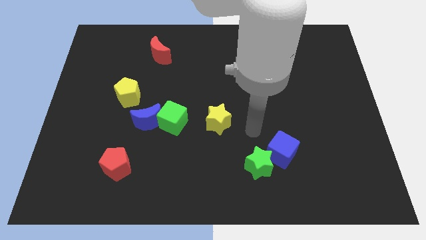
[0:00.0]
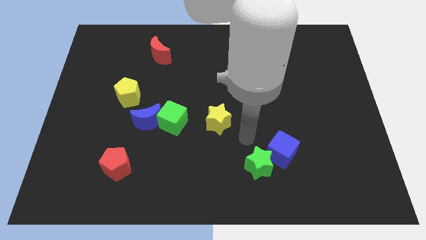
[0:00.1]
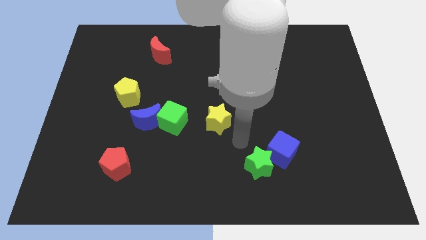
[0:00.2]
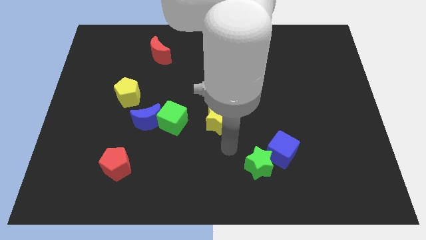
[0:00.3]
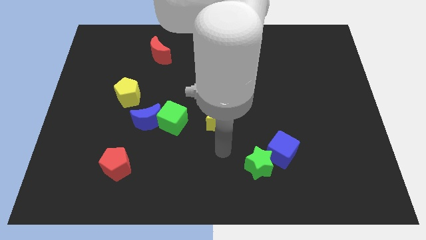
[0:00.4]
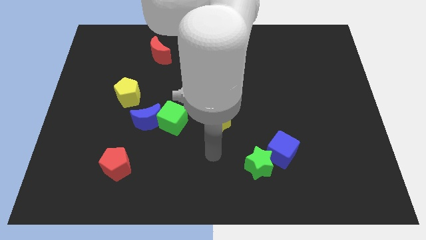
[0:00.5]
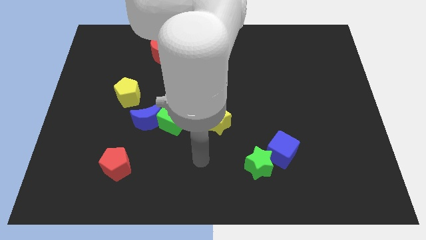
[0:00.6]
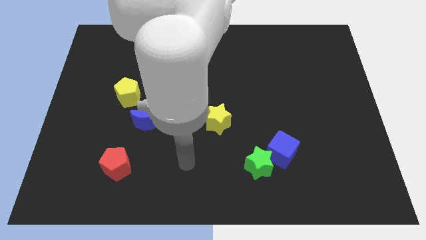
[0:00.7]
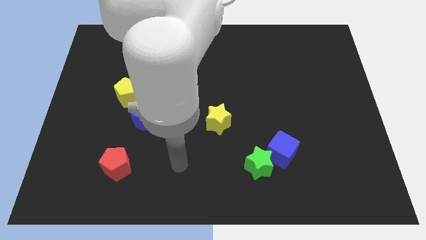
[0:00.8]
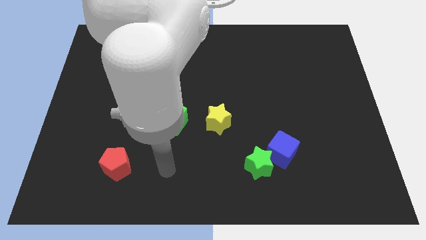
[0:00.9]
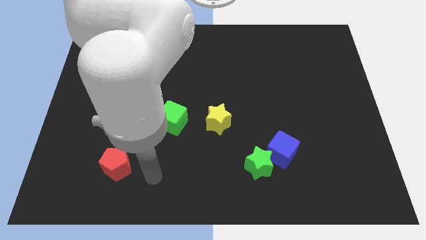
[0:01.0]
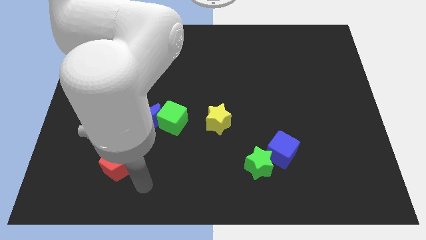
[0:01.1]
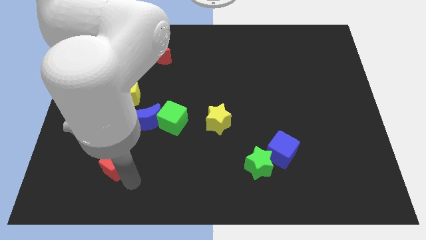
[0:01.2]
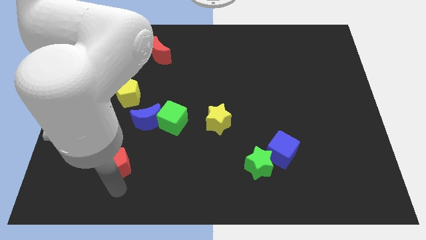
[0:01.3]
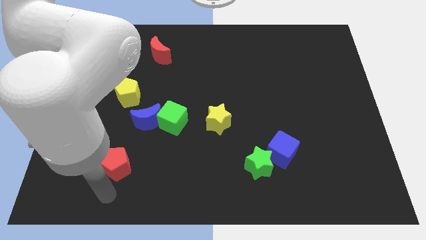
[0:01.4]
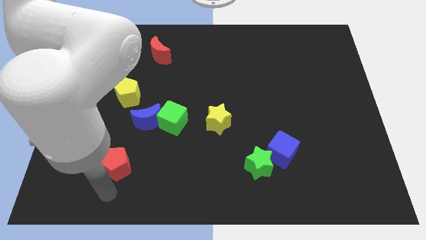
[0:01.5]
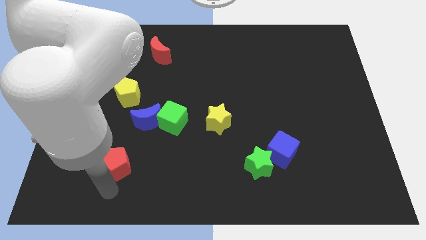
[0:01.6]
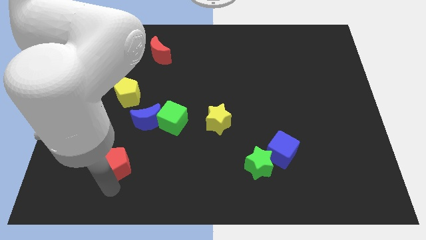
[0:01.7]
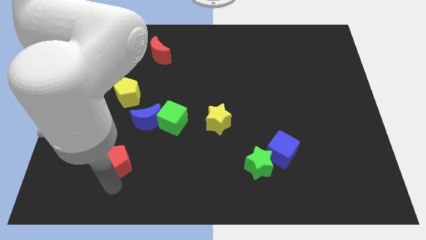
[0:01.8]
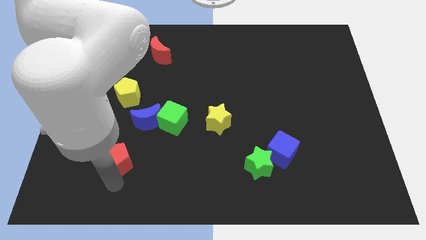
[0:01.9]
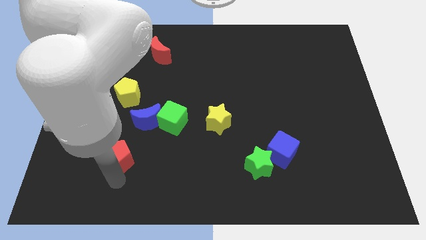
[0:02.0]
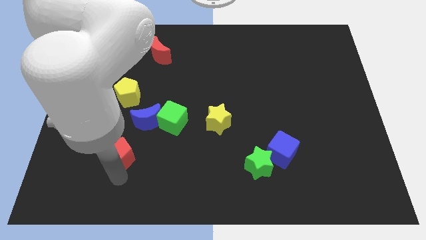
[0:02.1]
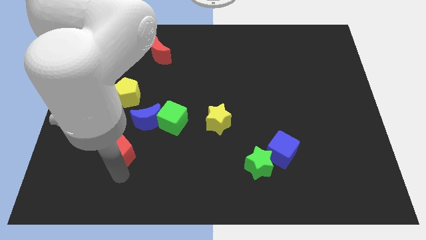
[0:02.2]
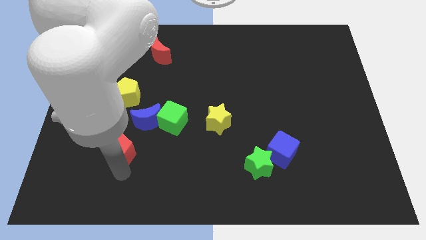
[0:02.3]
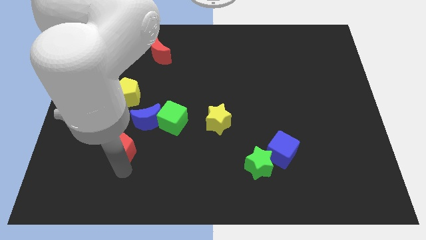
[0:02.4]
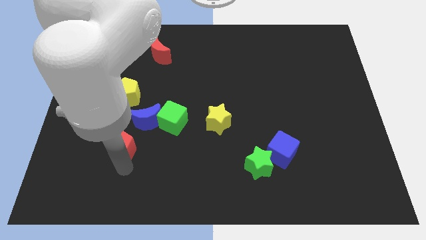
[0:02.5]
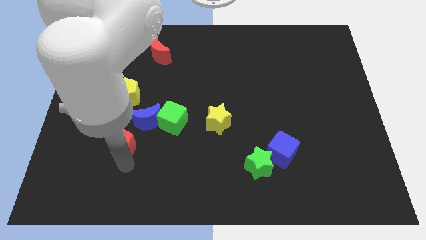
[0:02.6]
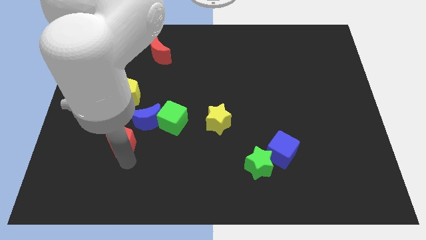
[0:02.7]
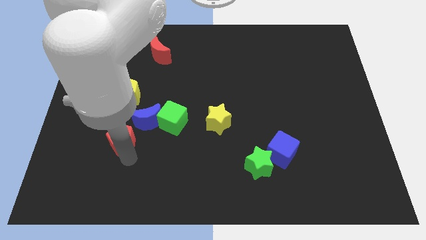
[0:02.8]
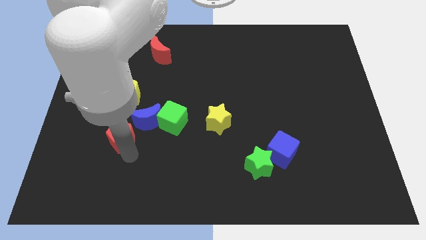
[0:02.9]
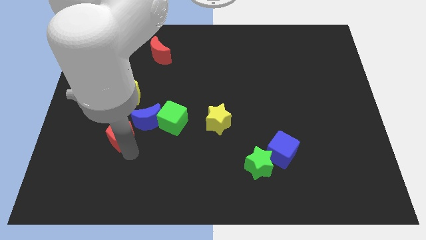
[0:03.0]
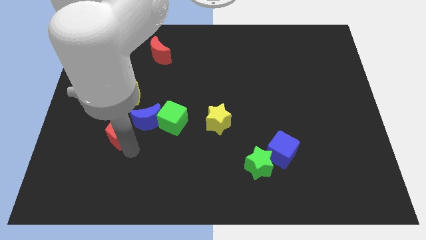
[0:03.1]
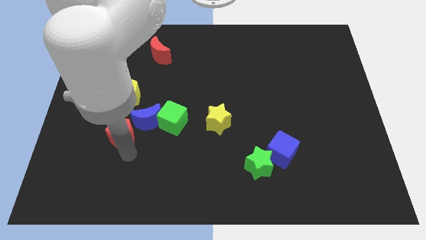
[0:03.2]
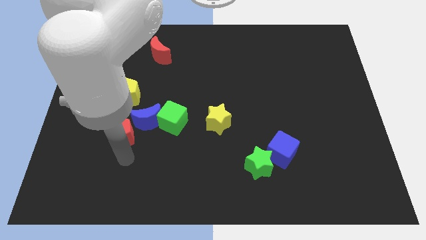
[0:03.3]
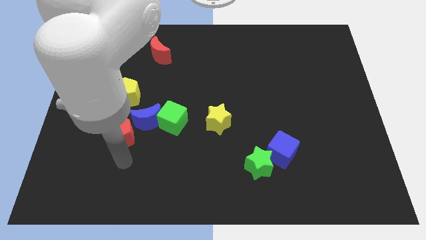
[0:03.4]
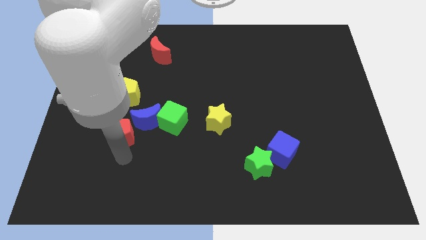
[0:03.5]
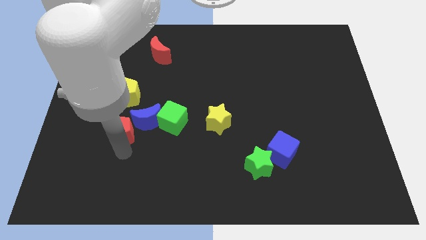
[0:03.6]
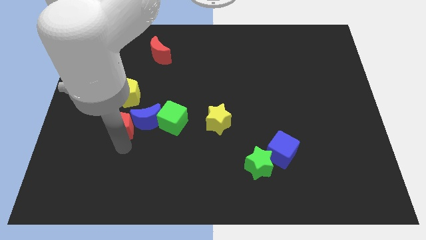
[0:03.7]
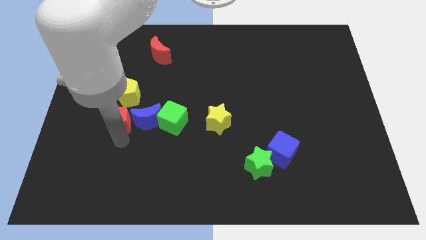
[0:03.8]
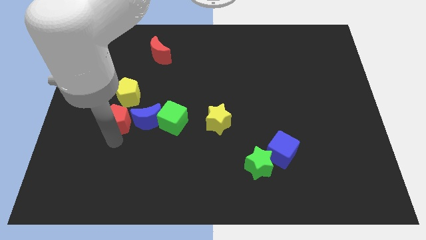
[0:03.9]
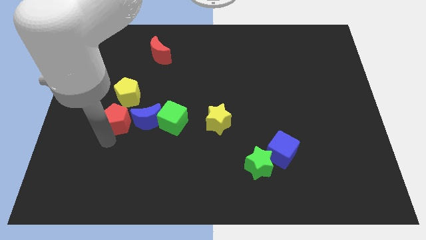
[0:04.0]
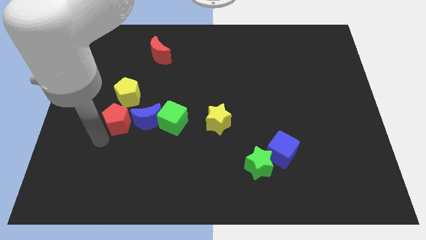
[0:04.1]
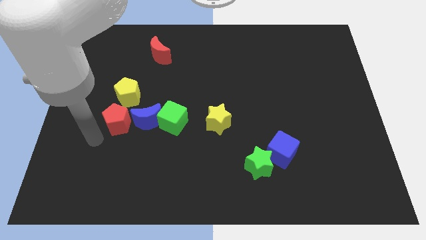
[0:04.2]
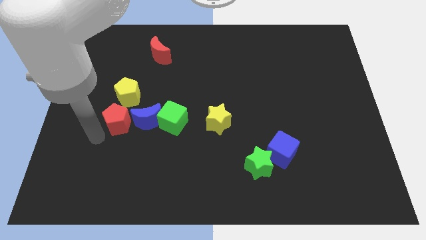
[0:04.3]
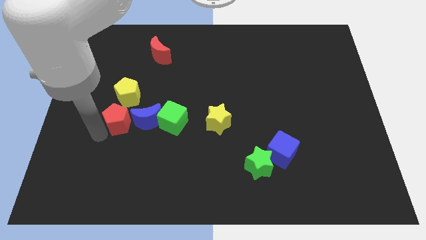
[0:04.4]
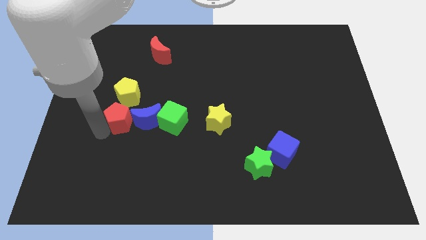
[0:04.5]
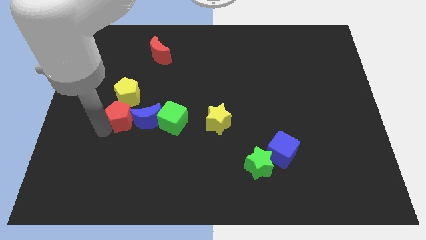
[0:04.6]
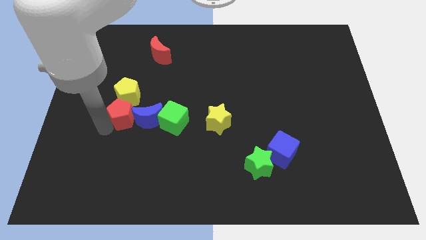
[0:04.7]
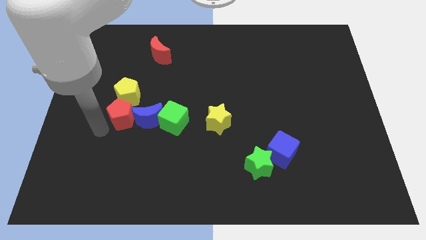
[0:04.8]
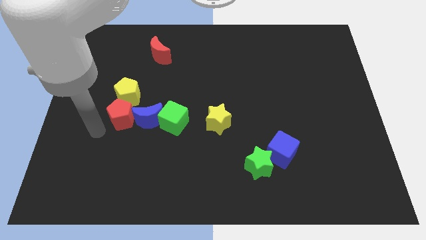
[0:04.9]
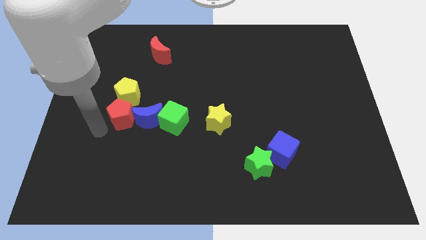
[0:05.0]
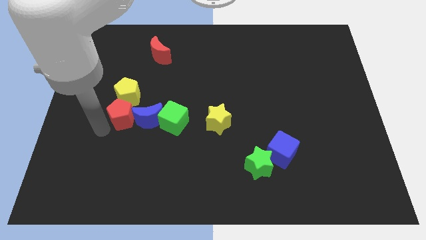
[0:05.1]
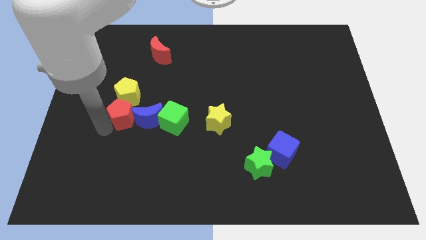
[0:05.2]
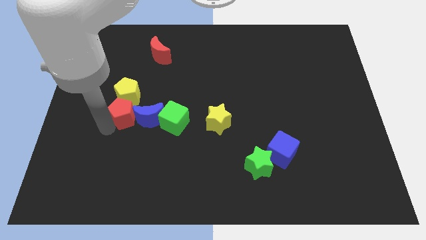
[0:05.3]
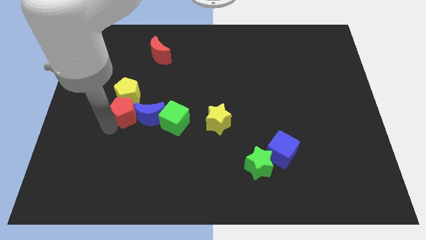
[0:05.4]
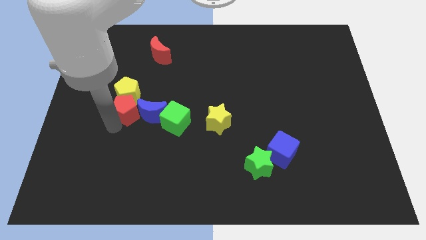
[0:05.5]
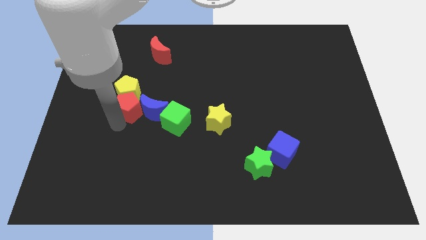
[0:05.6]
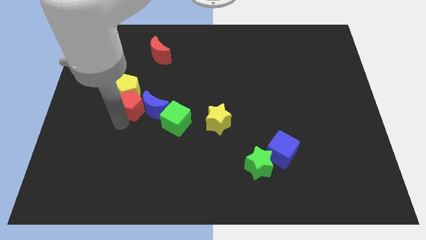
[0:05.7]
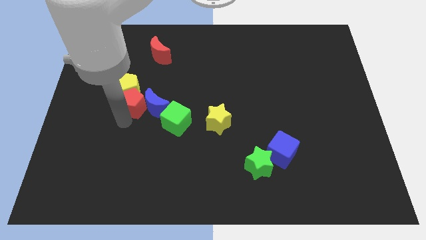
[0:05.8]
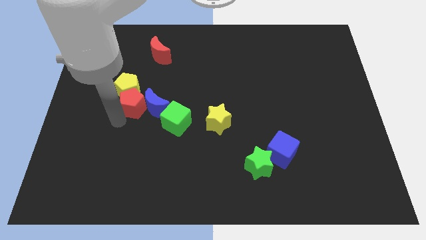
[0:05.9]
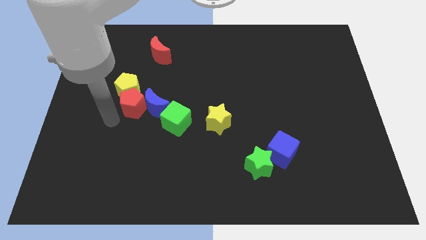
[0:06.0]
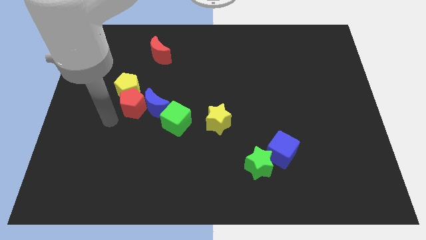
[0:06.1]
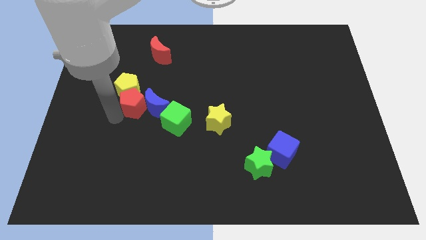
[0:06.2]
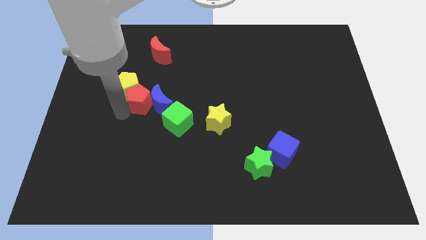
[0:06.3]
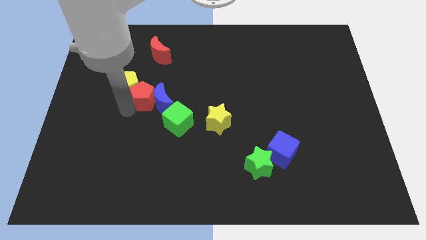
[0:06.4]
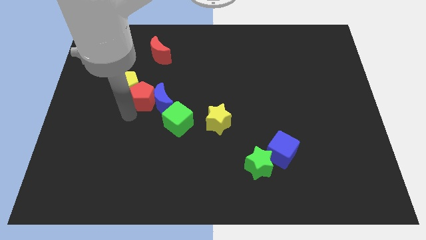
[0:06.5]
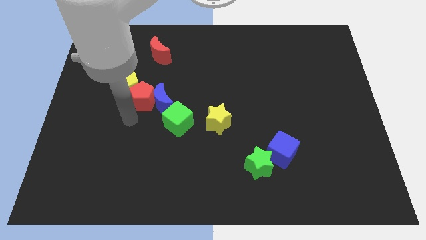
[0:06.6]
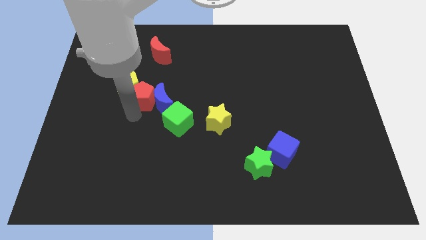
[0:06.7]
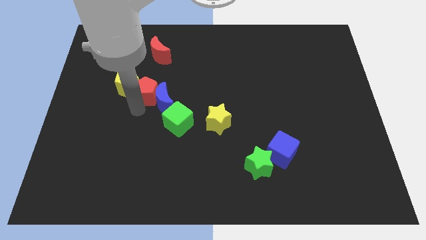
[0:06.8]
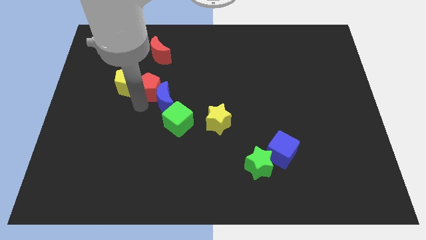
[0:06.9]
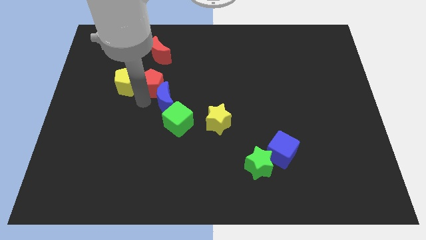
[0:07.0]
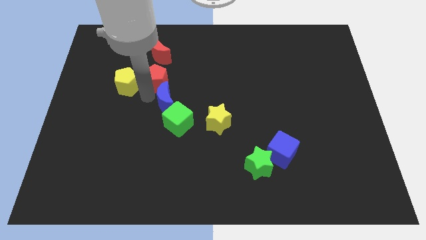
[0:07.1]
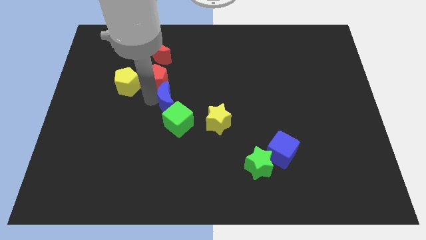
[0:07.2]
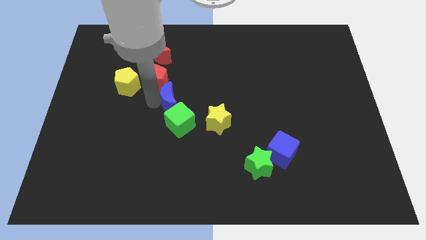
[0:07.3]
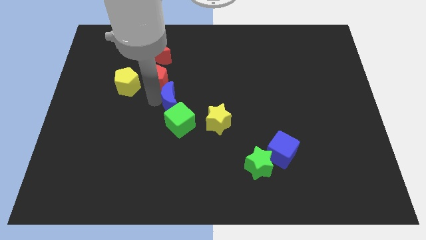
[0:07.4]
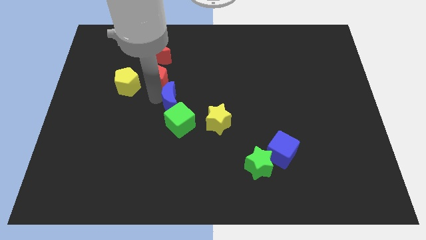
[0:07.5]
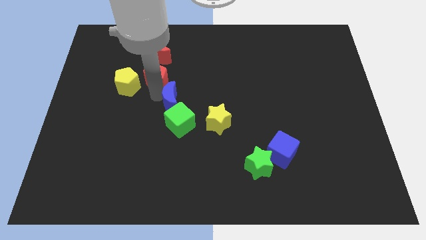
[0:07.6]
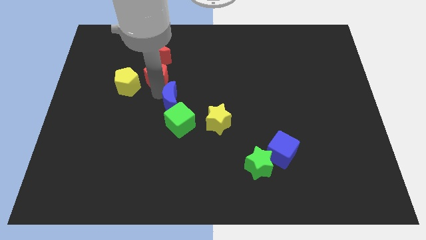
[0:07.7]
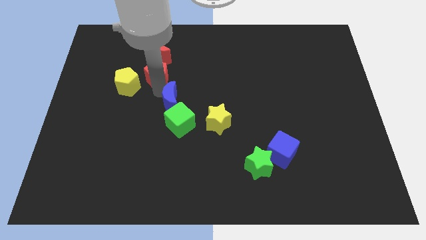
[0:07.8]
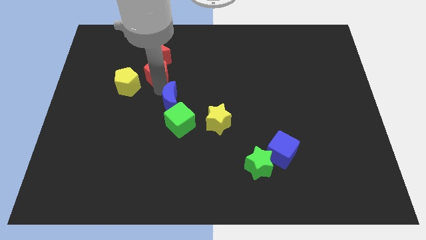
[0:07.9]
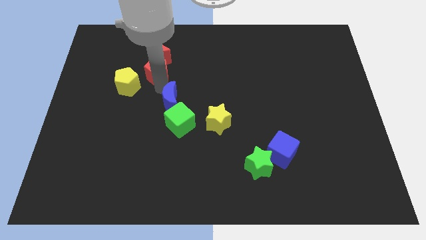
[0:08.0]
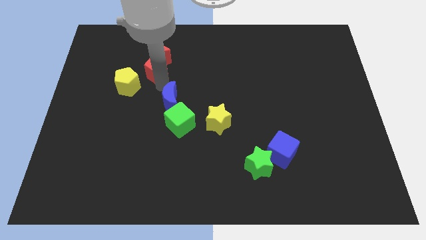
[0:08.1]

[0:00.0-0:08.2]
slide the red pentagon next to the red moon
